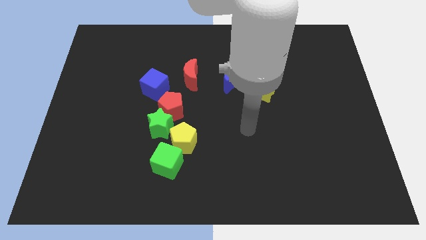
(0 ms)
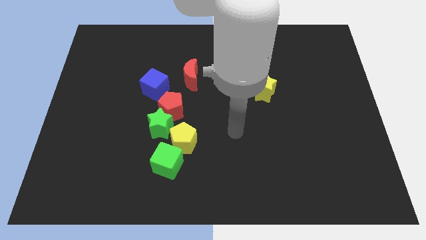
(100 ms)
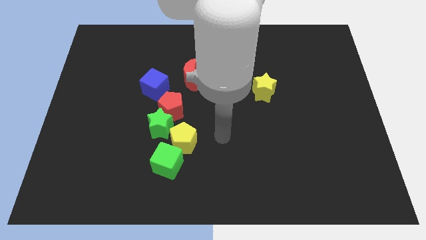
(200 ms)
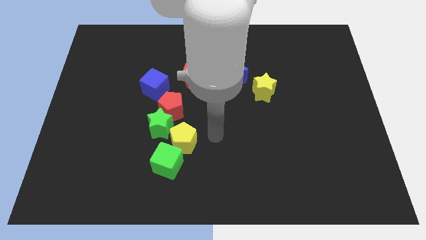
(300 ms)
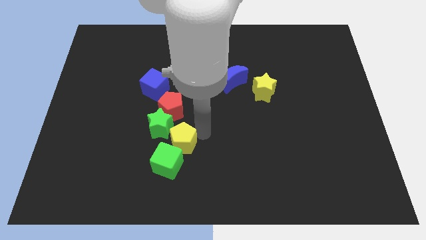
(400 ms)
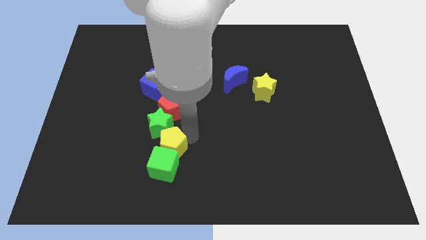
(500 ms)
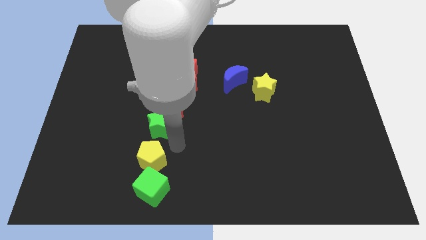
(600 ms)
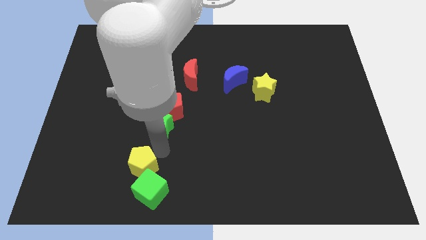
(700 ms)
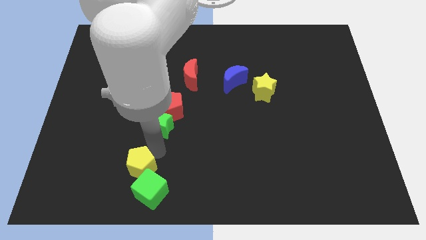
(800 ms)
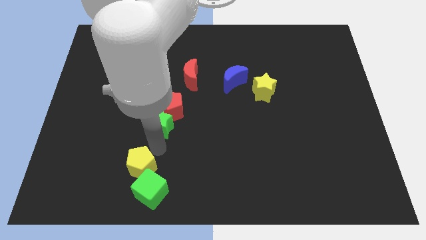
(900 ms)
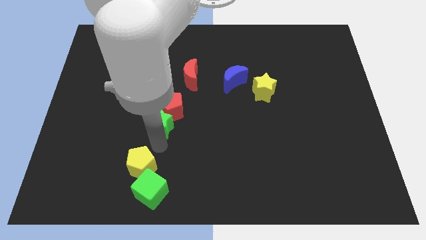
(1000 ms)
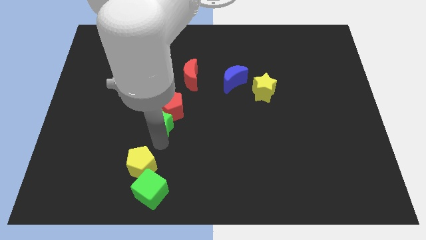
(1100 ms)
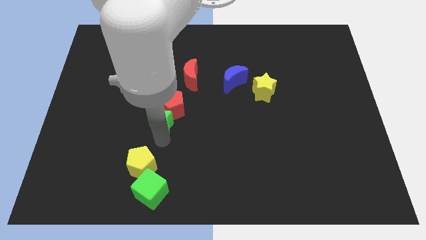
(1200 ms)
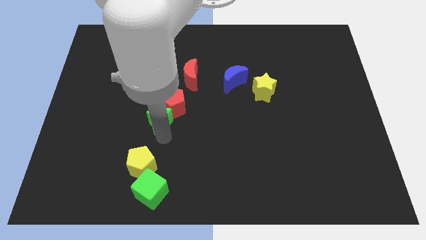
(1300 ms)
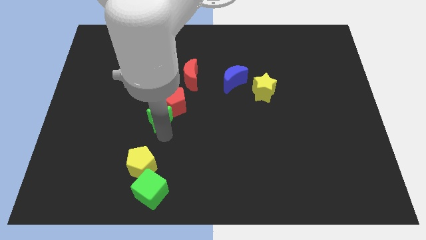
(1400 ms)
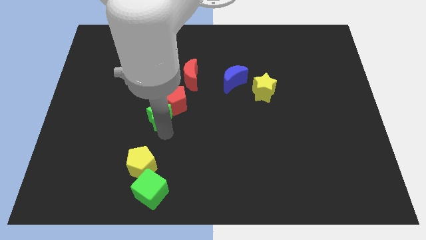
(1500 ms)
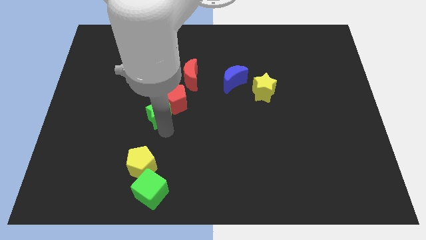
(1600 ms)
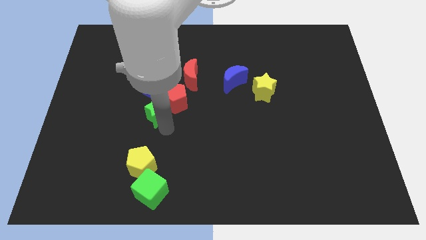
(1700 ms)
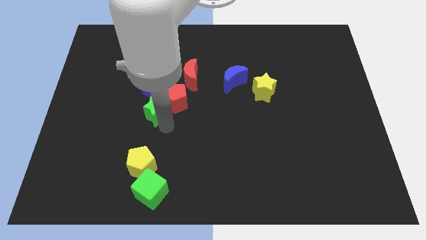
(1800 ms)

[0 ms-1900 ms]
separate the green star from the group

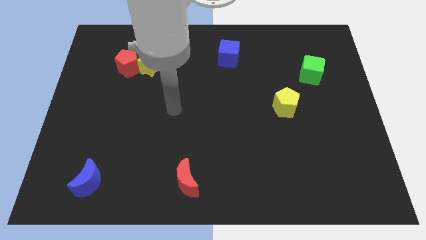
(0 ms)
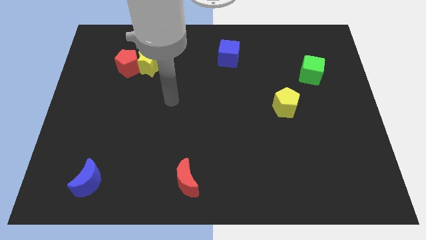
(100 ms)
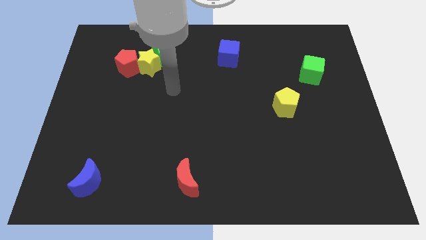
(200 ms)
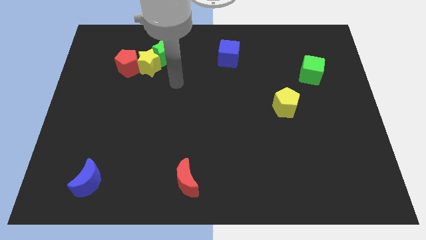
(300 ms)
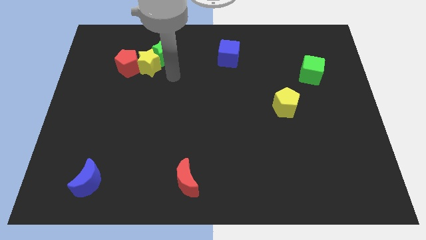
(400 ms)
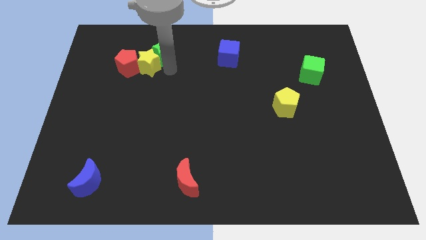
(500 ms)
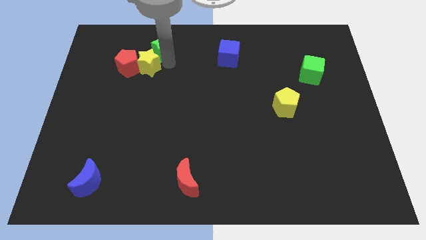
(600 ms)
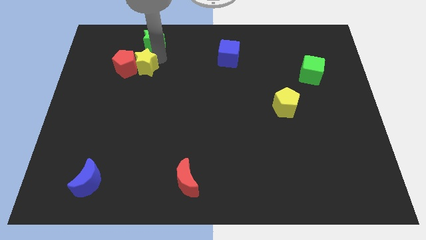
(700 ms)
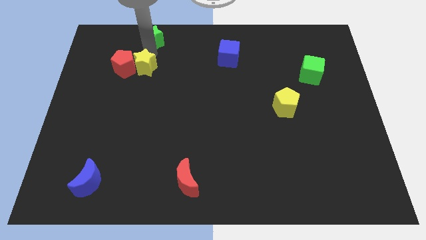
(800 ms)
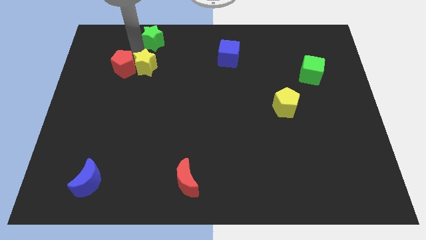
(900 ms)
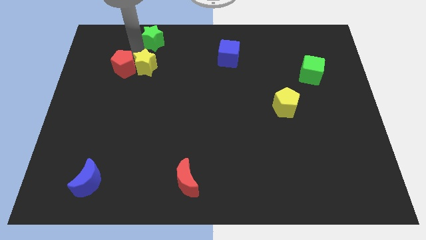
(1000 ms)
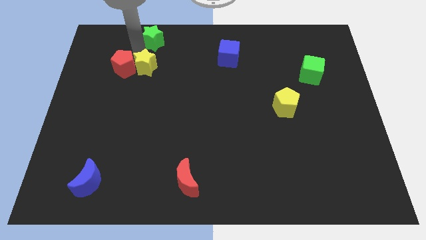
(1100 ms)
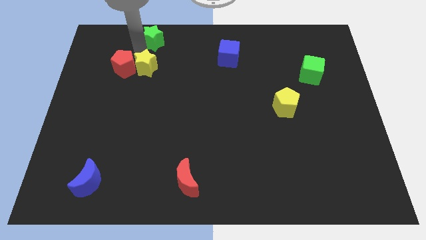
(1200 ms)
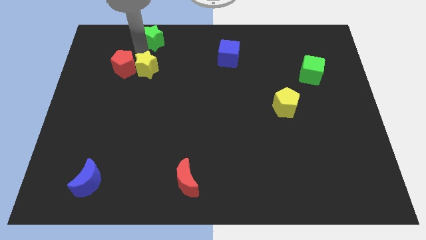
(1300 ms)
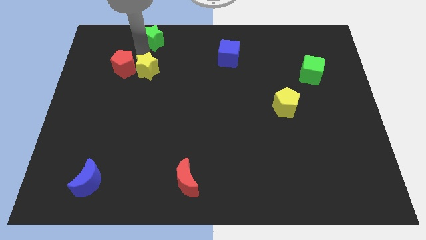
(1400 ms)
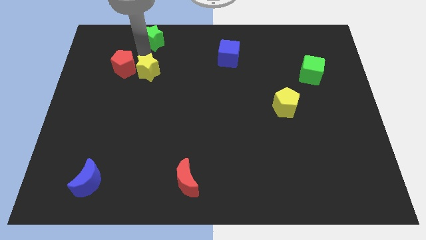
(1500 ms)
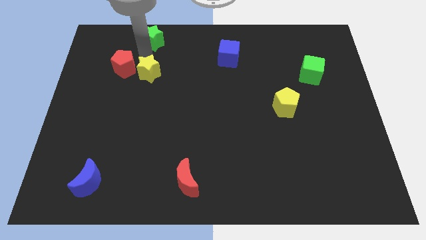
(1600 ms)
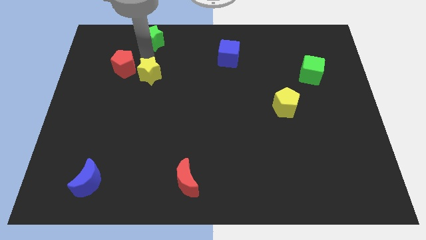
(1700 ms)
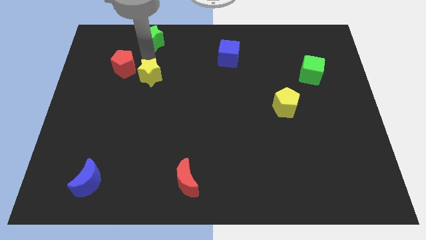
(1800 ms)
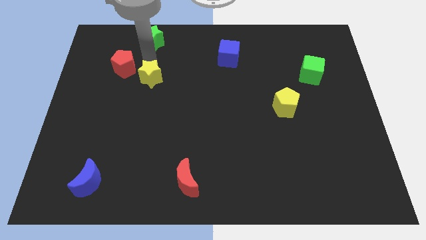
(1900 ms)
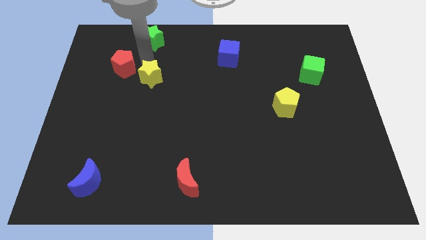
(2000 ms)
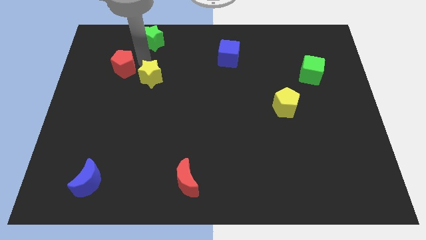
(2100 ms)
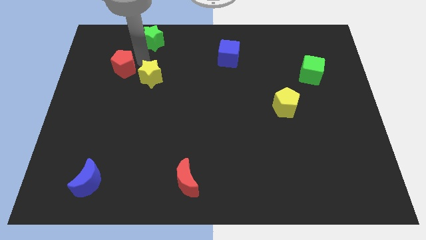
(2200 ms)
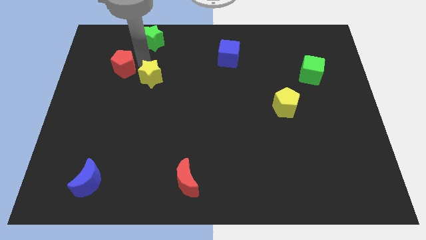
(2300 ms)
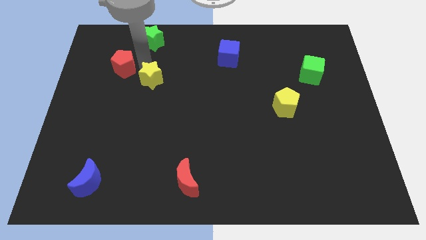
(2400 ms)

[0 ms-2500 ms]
move the yellow star away from the red pentagon and green star

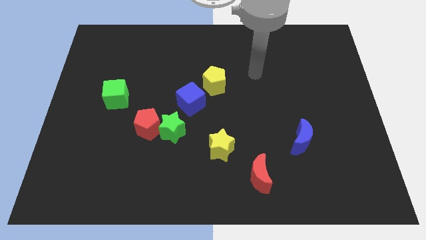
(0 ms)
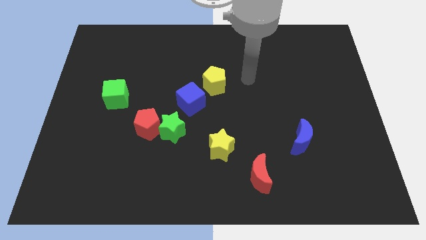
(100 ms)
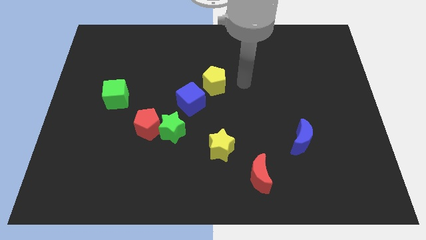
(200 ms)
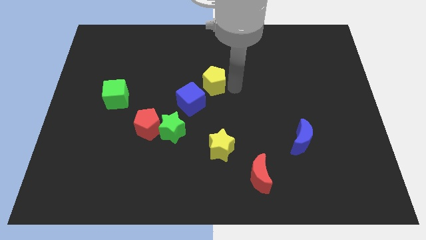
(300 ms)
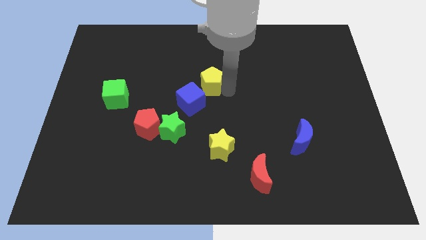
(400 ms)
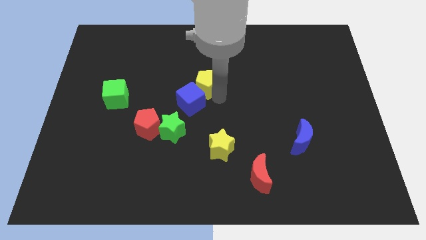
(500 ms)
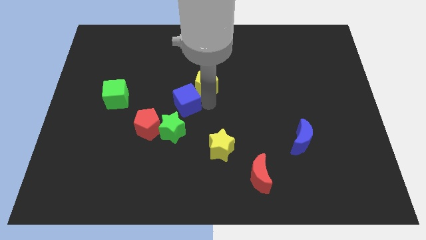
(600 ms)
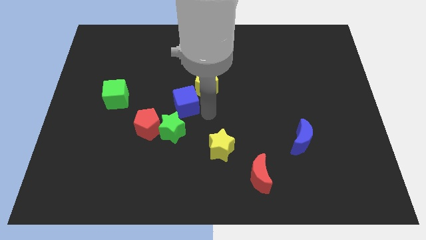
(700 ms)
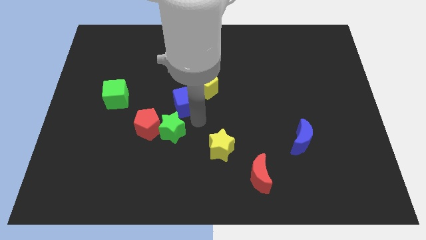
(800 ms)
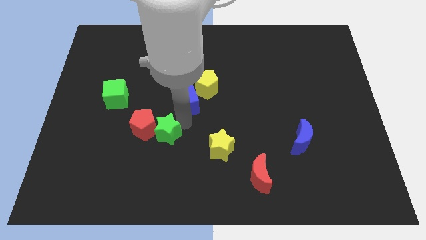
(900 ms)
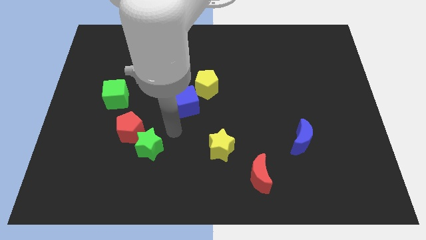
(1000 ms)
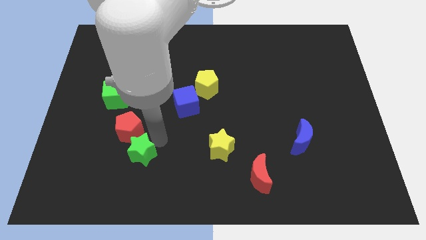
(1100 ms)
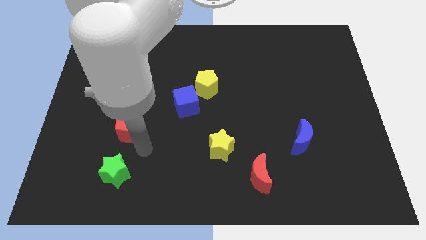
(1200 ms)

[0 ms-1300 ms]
move the red pentagon away from the green star

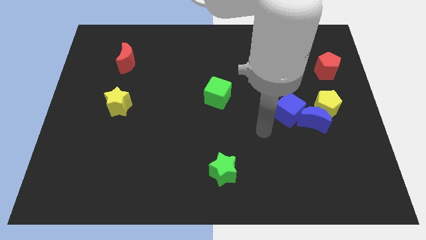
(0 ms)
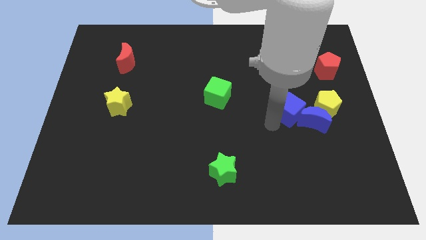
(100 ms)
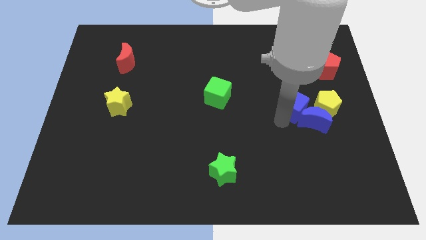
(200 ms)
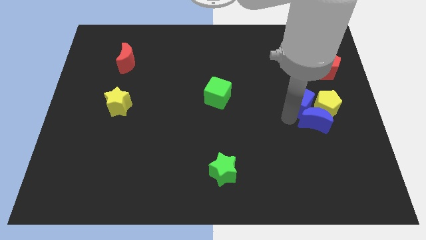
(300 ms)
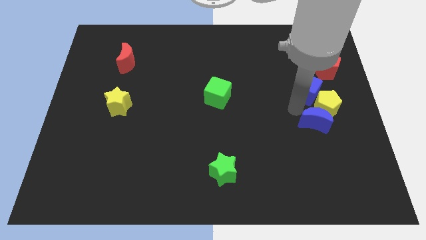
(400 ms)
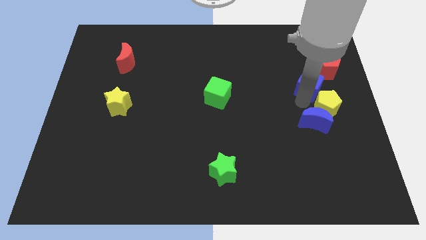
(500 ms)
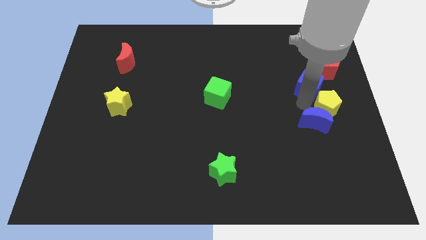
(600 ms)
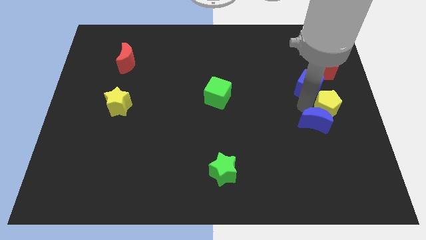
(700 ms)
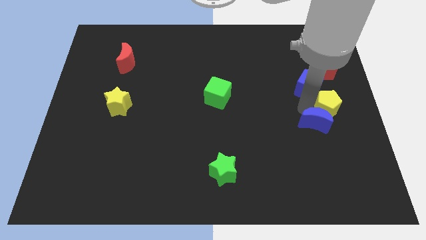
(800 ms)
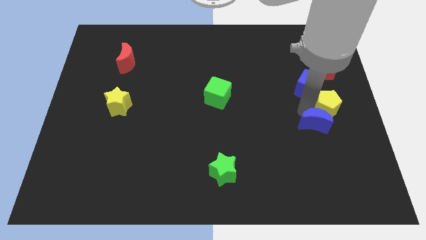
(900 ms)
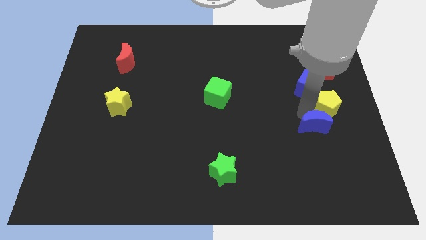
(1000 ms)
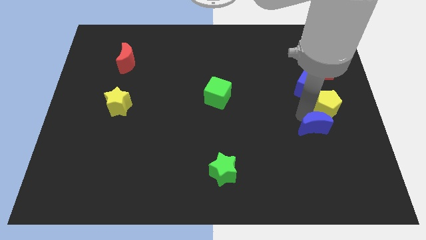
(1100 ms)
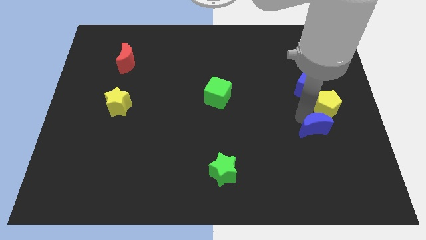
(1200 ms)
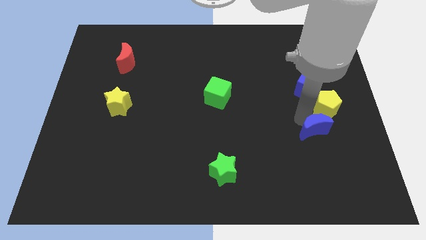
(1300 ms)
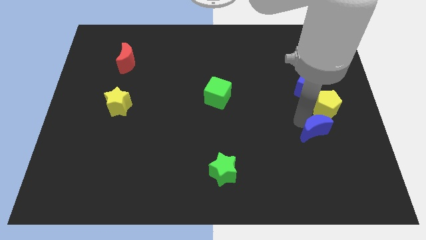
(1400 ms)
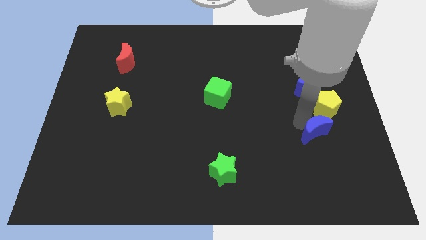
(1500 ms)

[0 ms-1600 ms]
move the blue moon away from the yellow pentagon and blue cube

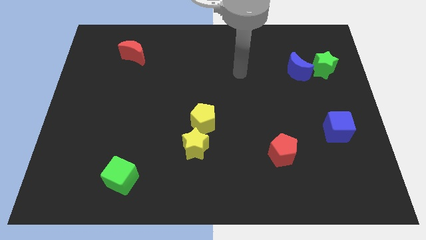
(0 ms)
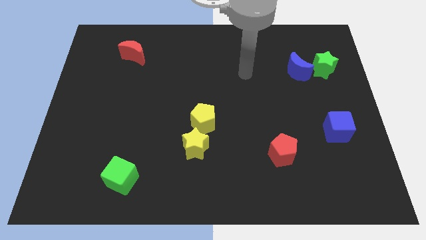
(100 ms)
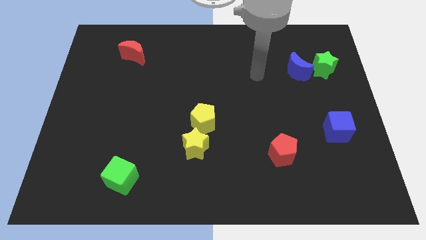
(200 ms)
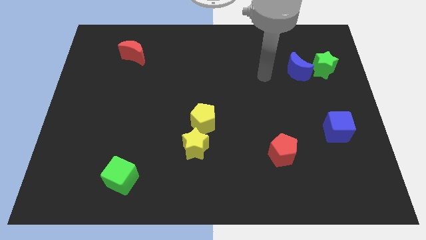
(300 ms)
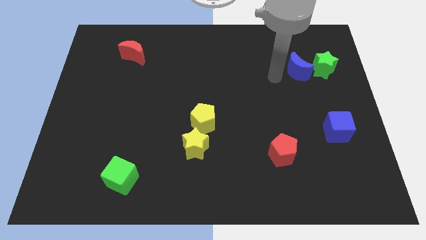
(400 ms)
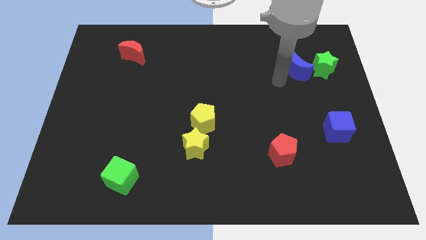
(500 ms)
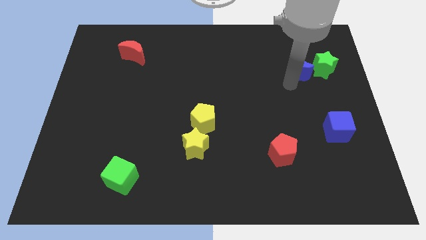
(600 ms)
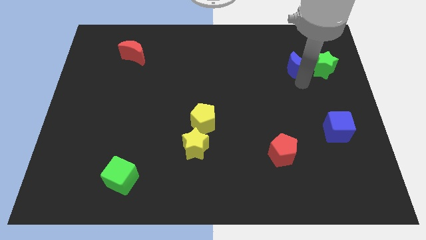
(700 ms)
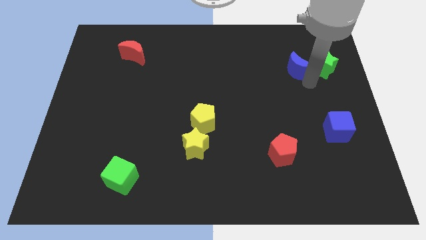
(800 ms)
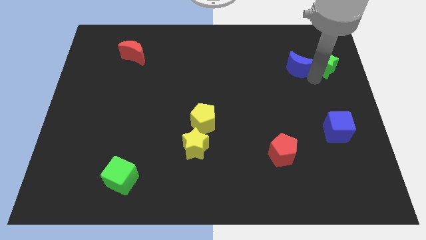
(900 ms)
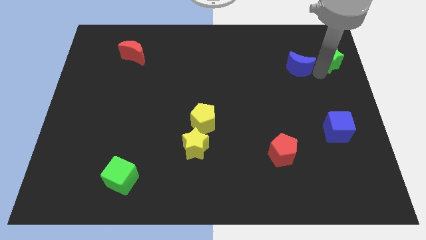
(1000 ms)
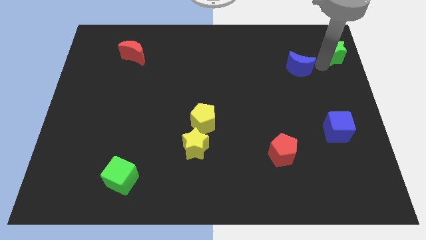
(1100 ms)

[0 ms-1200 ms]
separate the blue moon from the green star

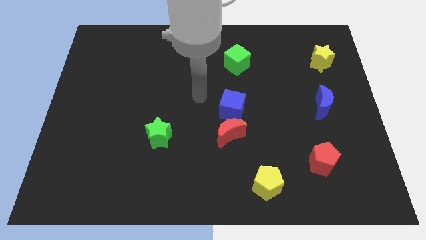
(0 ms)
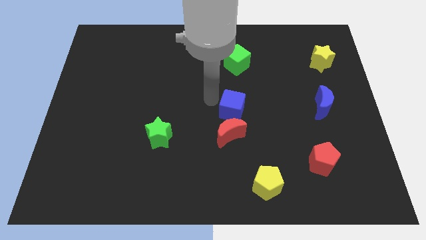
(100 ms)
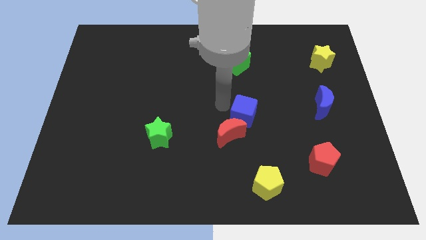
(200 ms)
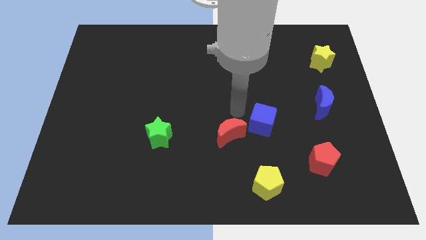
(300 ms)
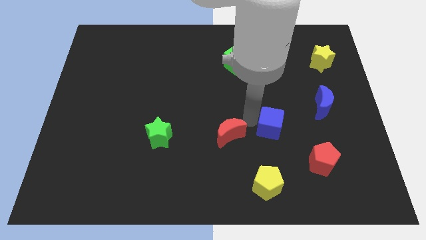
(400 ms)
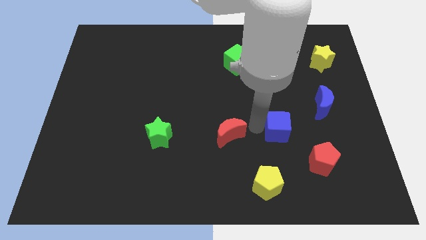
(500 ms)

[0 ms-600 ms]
pull the red moon apart from the blue cube
